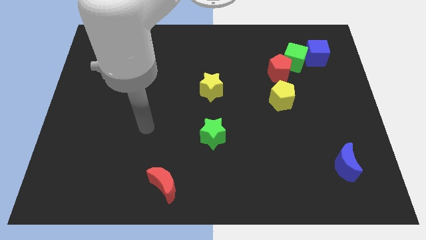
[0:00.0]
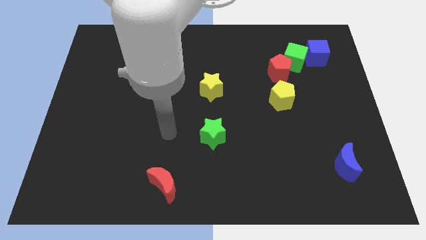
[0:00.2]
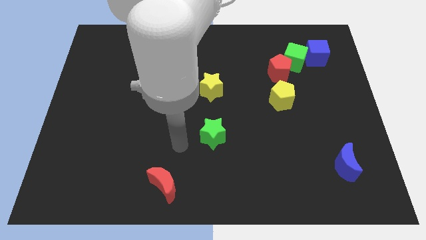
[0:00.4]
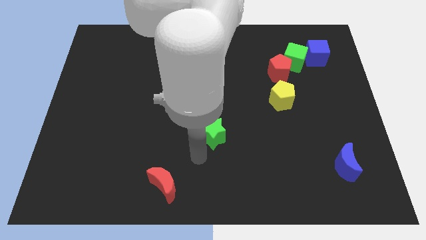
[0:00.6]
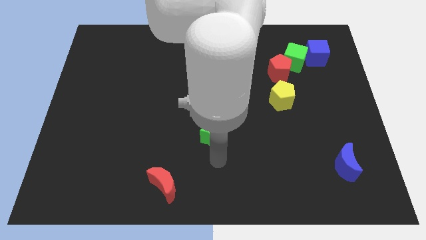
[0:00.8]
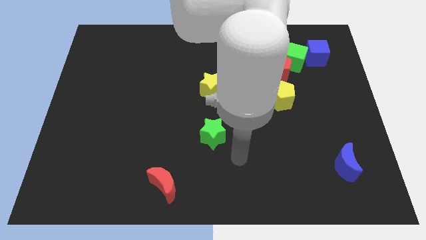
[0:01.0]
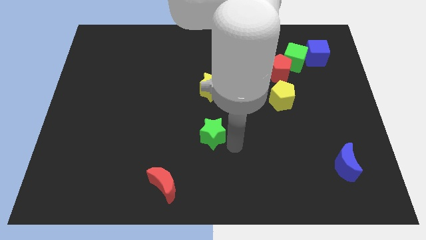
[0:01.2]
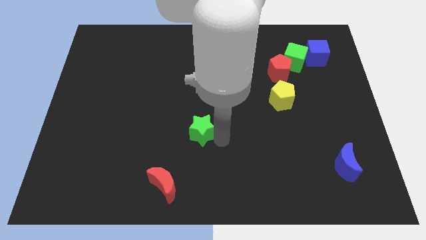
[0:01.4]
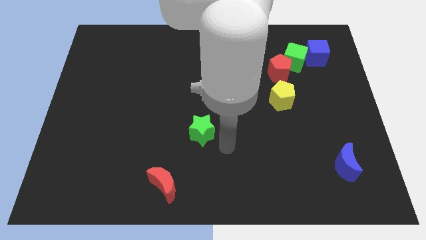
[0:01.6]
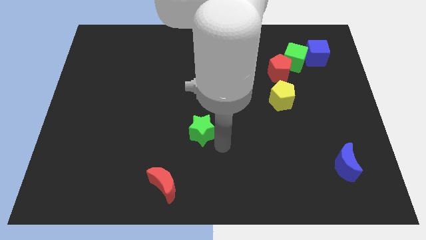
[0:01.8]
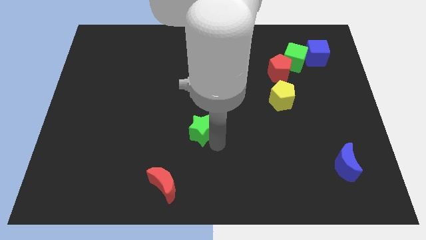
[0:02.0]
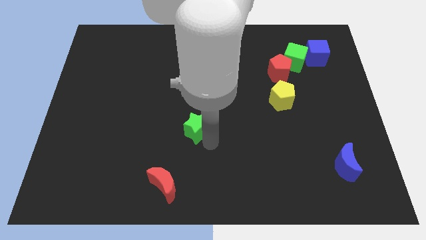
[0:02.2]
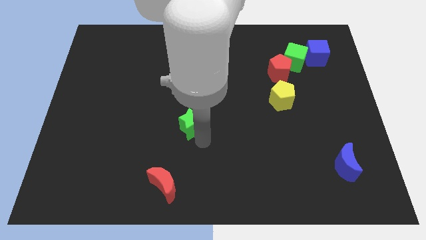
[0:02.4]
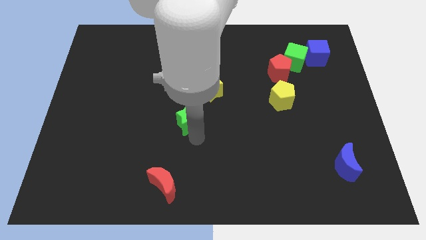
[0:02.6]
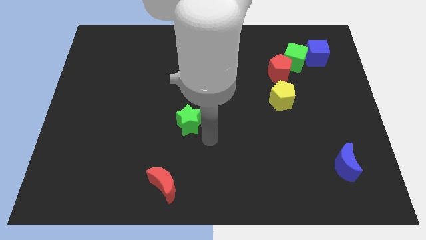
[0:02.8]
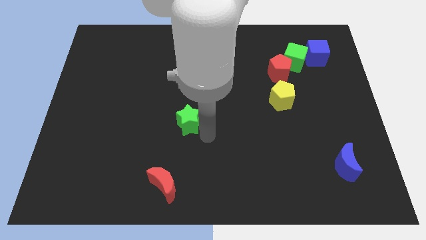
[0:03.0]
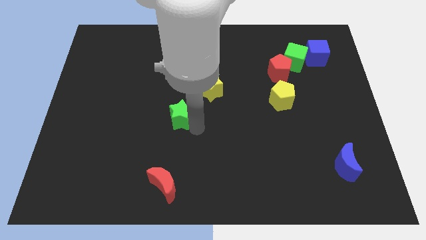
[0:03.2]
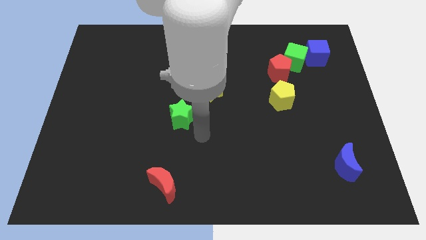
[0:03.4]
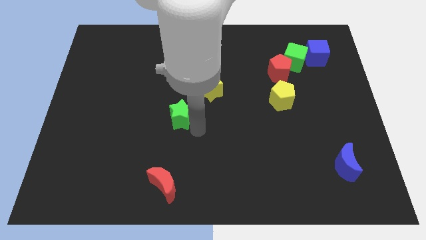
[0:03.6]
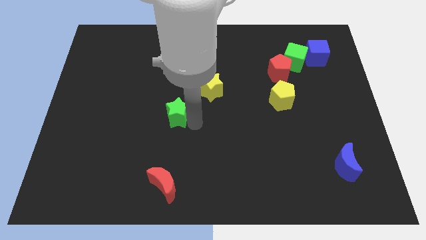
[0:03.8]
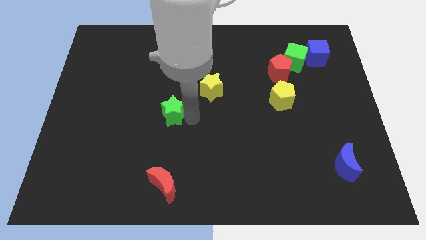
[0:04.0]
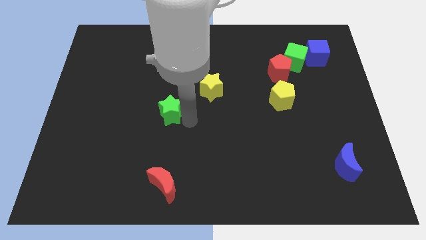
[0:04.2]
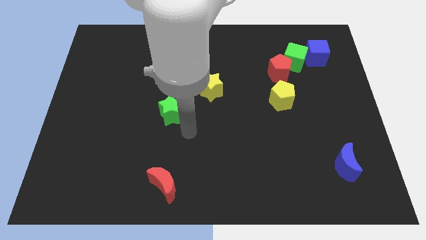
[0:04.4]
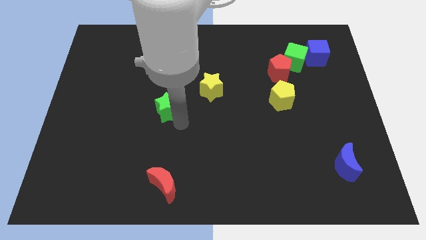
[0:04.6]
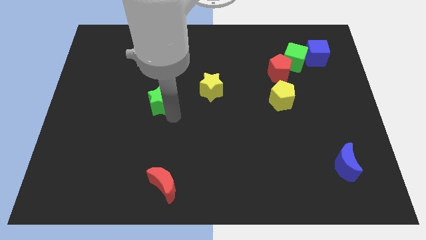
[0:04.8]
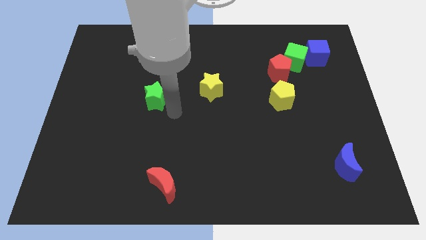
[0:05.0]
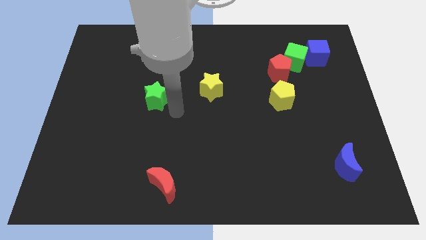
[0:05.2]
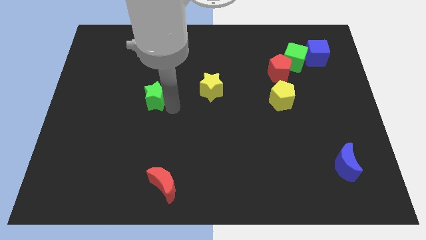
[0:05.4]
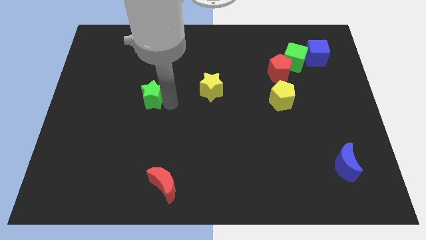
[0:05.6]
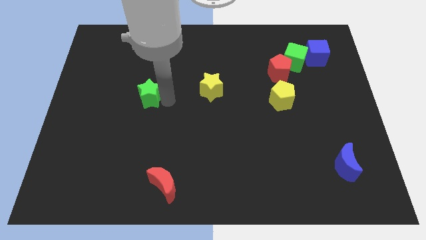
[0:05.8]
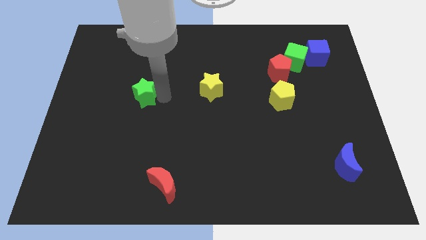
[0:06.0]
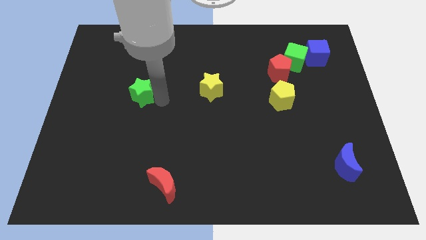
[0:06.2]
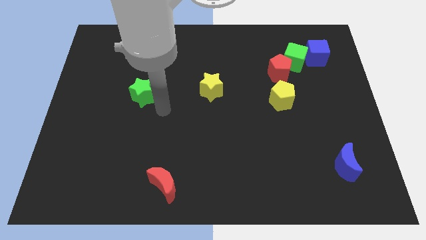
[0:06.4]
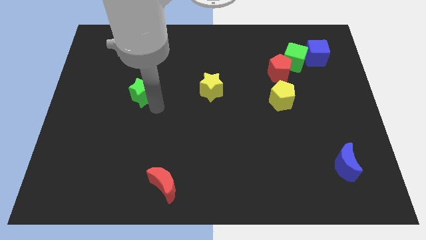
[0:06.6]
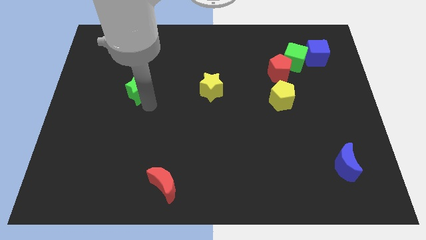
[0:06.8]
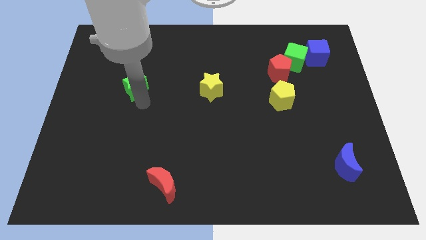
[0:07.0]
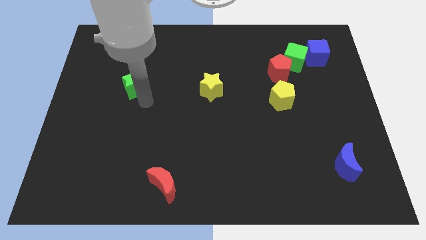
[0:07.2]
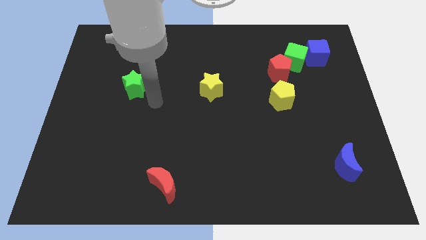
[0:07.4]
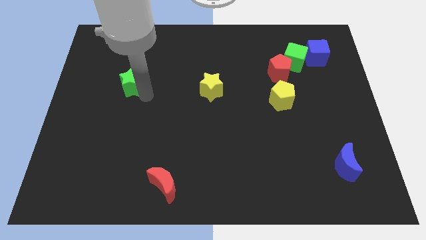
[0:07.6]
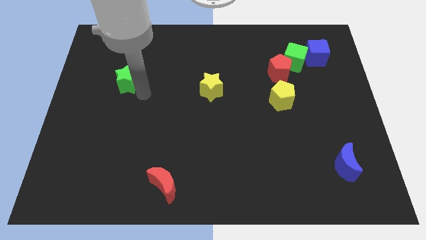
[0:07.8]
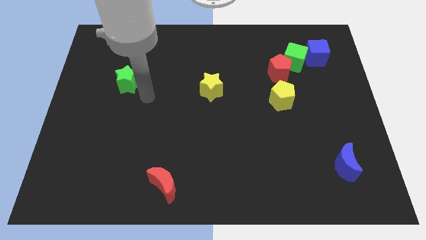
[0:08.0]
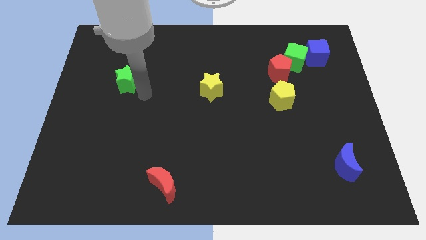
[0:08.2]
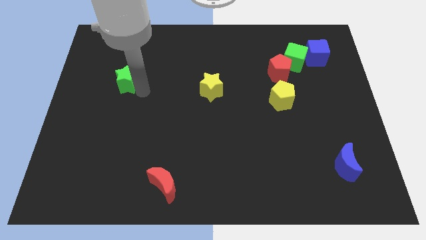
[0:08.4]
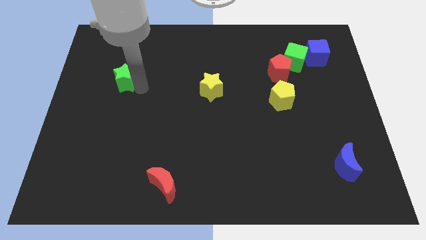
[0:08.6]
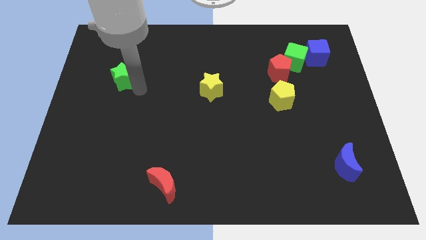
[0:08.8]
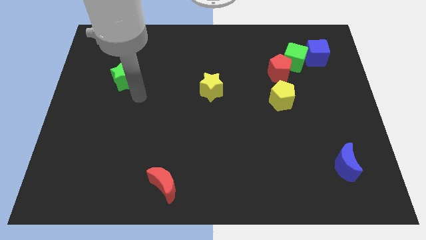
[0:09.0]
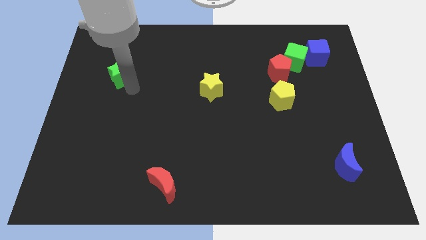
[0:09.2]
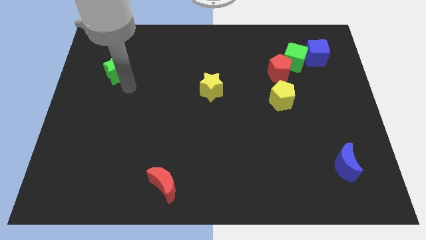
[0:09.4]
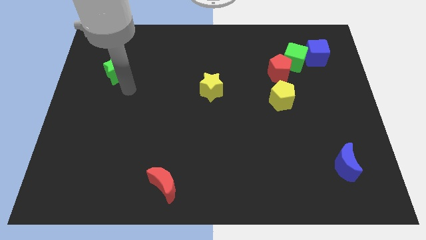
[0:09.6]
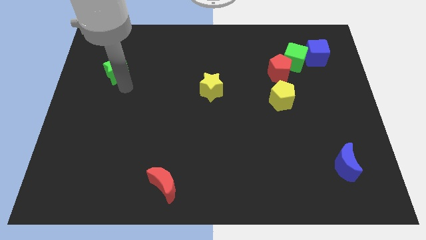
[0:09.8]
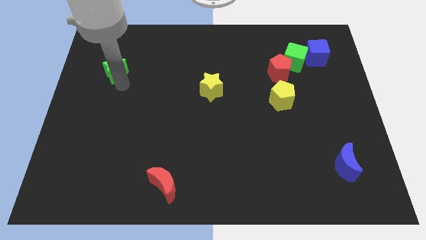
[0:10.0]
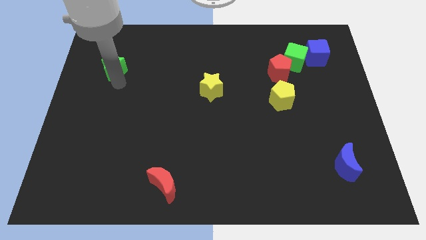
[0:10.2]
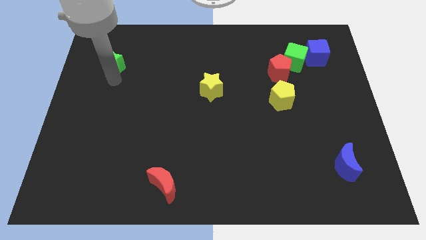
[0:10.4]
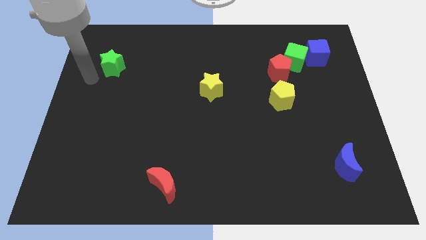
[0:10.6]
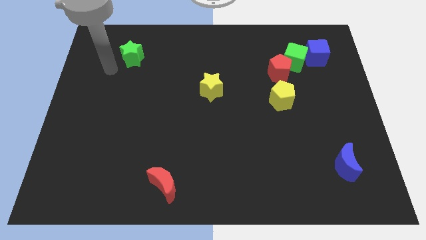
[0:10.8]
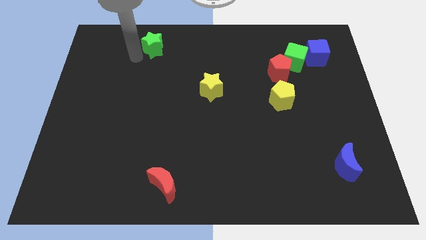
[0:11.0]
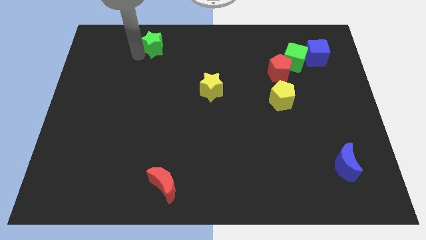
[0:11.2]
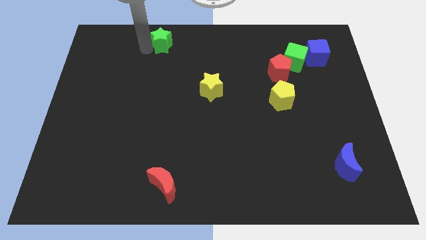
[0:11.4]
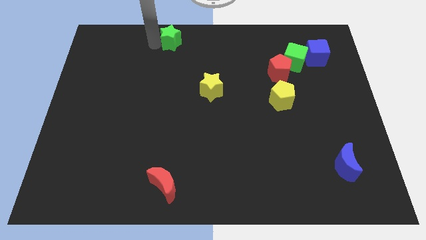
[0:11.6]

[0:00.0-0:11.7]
slide the green star to the top

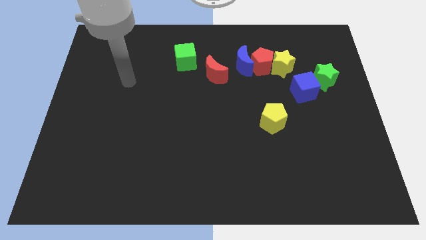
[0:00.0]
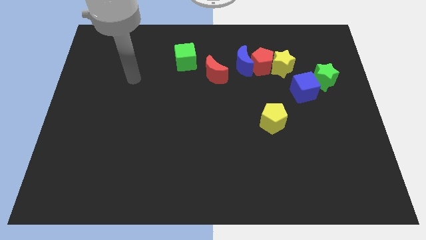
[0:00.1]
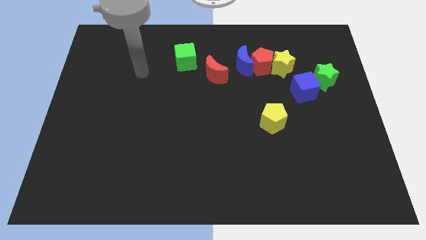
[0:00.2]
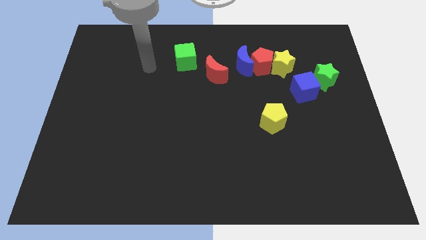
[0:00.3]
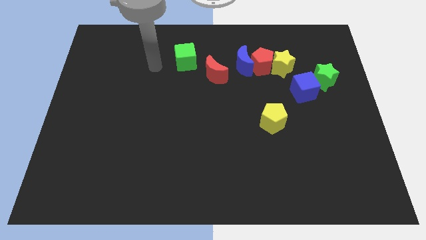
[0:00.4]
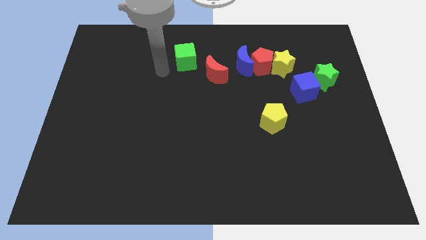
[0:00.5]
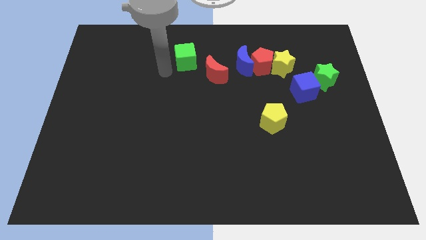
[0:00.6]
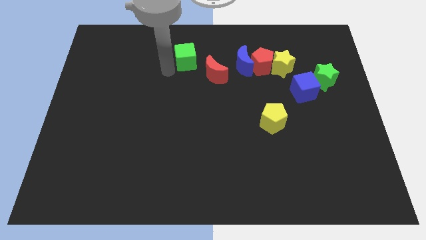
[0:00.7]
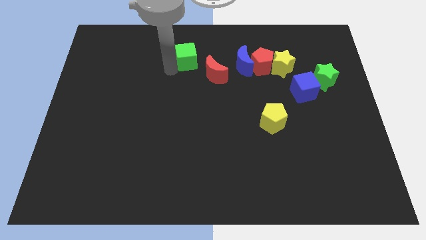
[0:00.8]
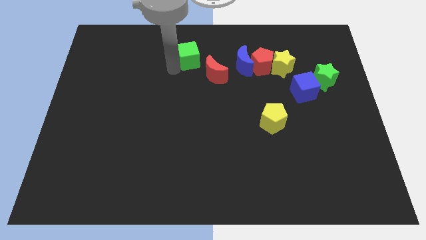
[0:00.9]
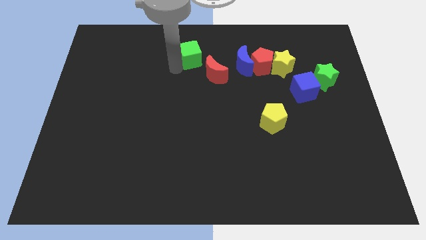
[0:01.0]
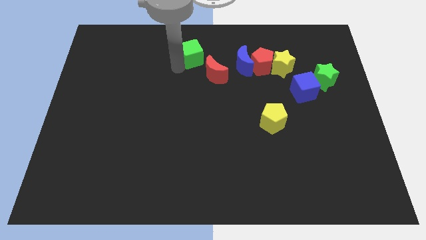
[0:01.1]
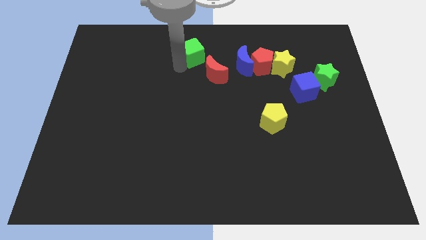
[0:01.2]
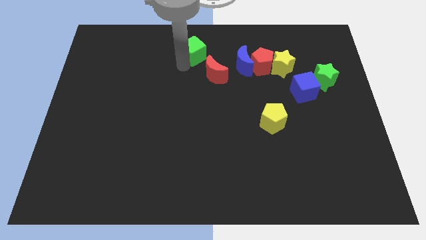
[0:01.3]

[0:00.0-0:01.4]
slide the green cube to the top side
